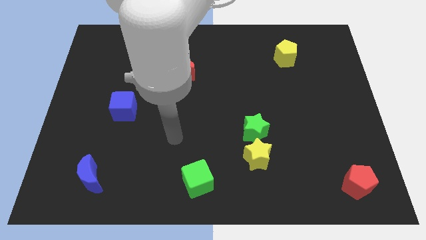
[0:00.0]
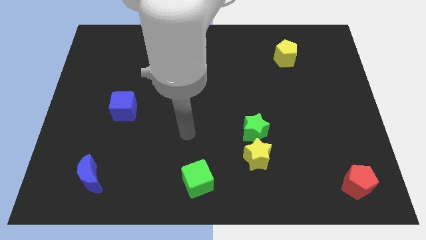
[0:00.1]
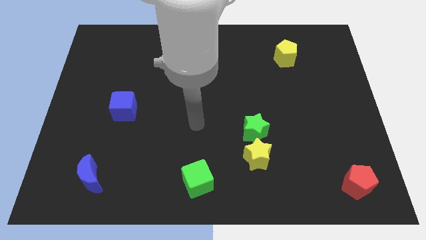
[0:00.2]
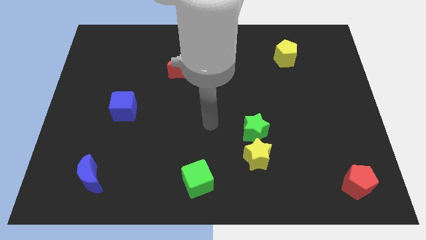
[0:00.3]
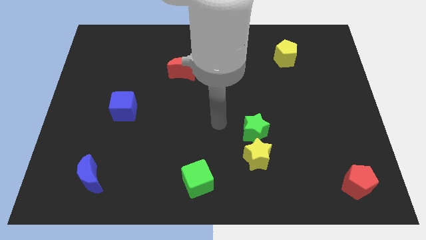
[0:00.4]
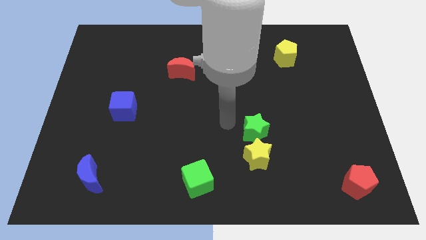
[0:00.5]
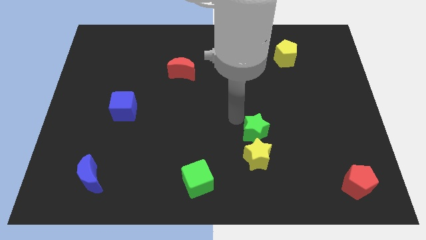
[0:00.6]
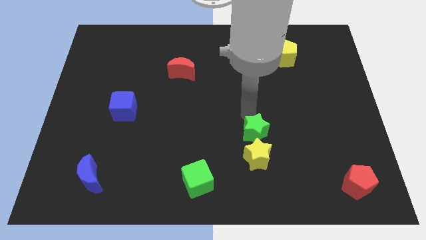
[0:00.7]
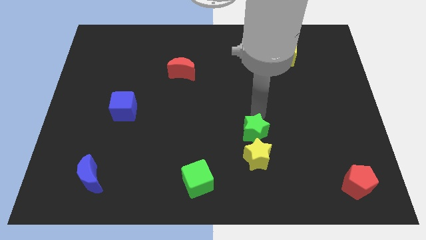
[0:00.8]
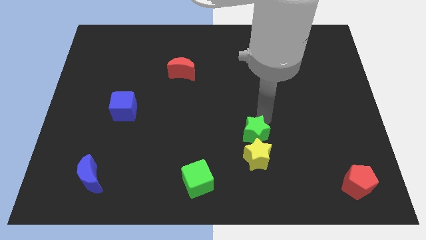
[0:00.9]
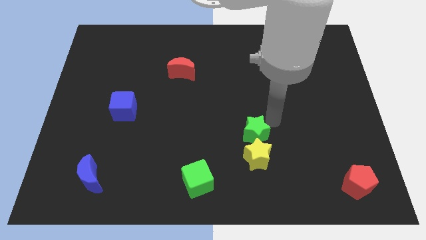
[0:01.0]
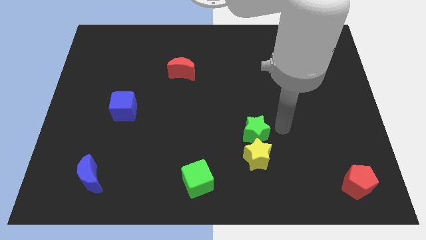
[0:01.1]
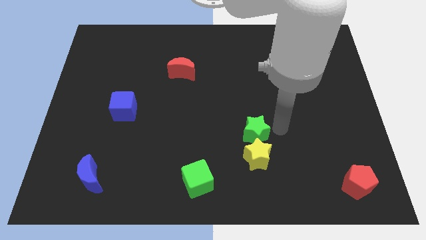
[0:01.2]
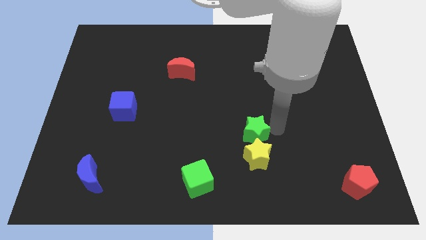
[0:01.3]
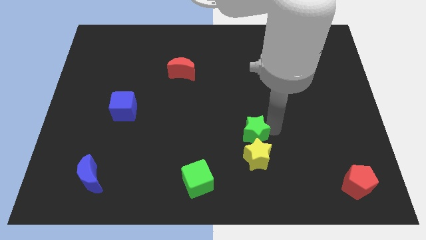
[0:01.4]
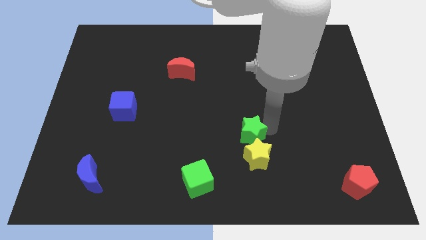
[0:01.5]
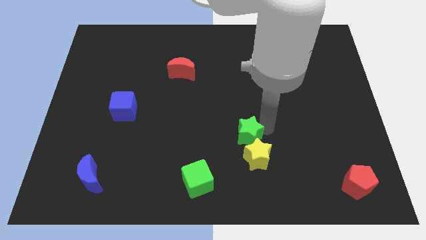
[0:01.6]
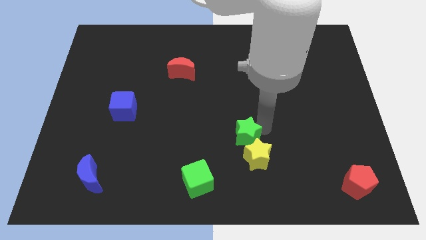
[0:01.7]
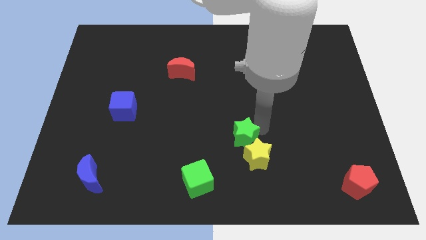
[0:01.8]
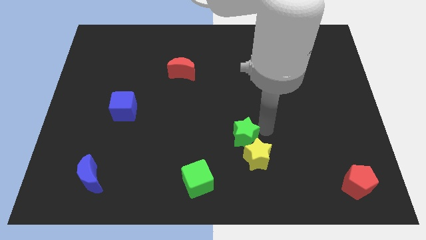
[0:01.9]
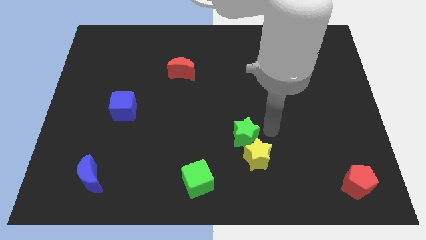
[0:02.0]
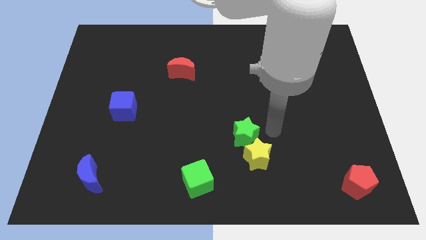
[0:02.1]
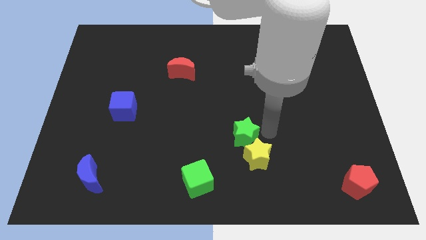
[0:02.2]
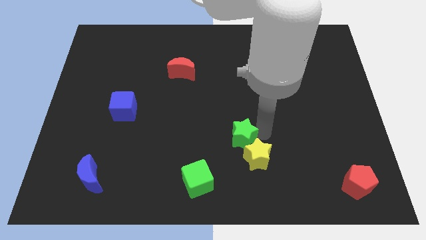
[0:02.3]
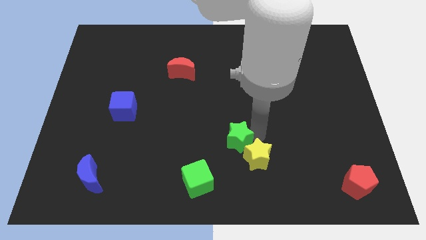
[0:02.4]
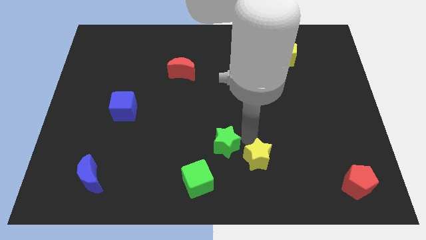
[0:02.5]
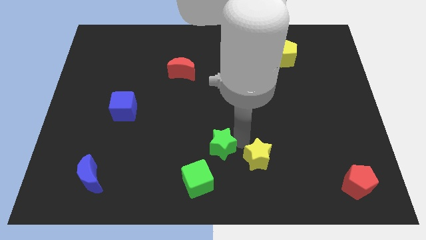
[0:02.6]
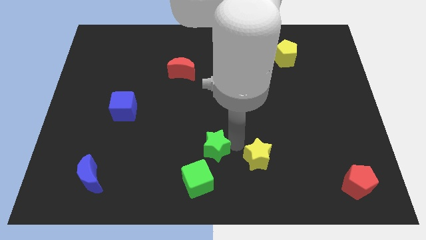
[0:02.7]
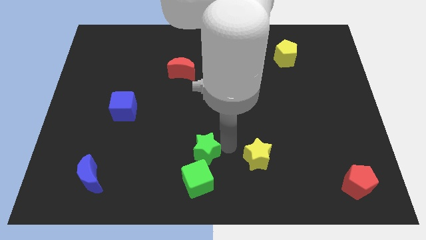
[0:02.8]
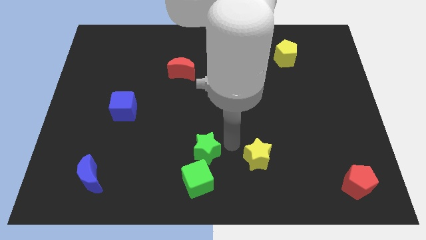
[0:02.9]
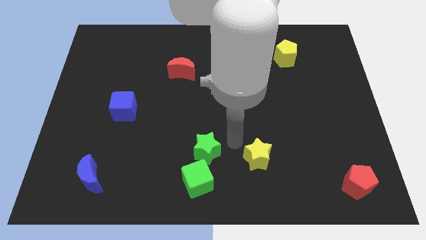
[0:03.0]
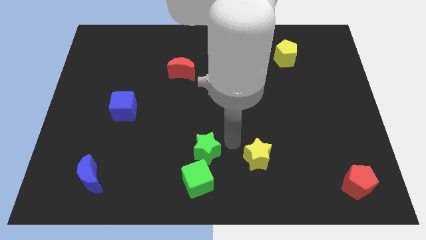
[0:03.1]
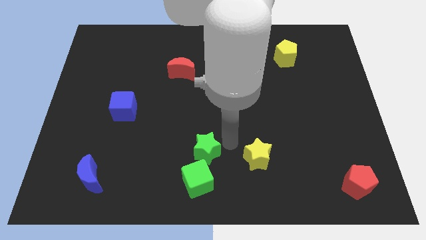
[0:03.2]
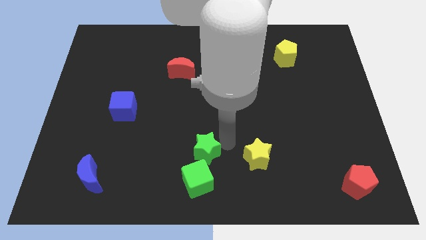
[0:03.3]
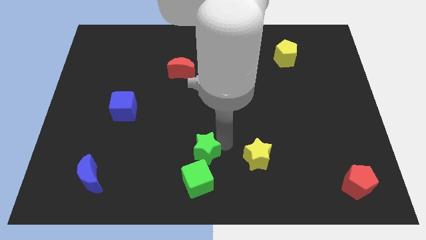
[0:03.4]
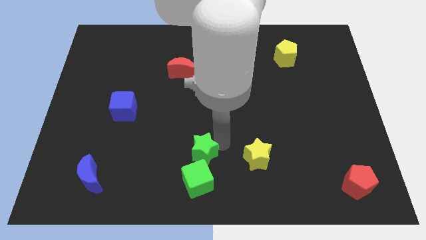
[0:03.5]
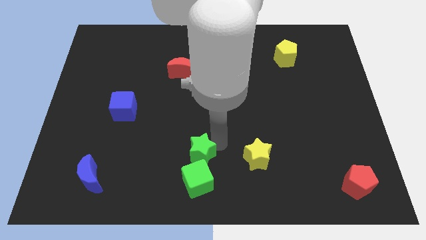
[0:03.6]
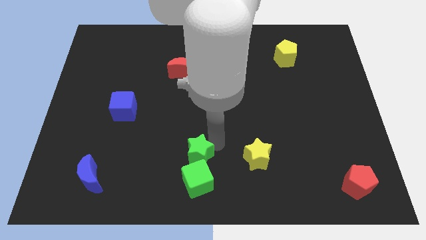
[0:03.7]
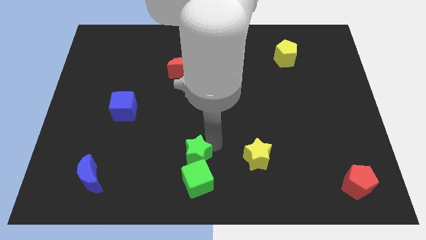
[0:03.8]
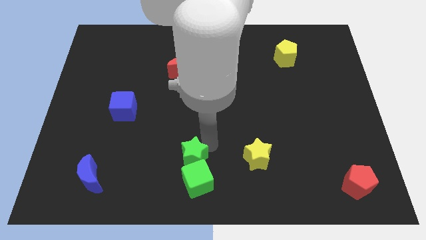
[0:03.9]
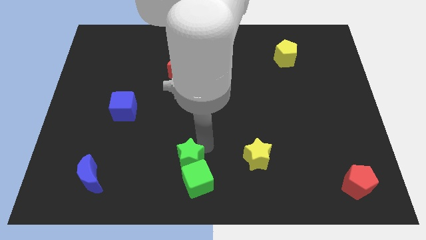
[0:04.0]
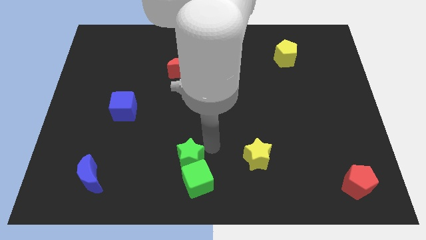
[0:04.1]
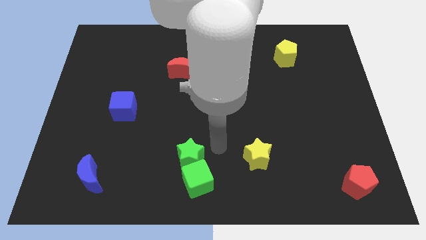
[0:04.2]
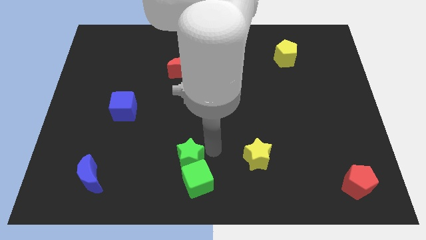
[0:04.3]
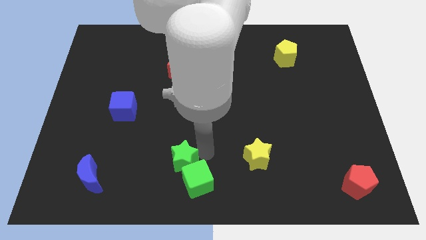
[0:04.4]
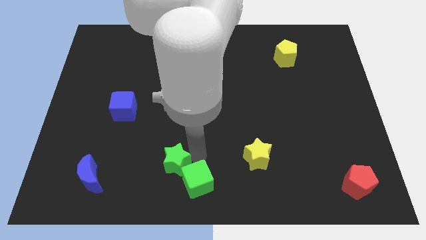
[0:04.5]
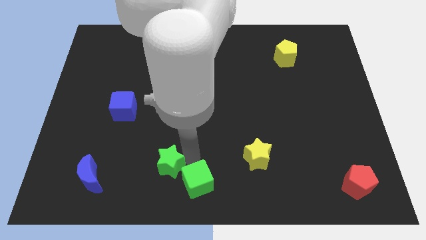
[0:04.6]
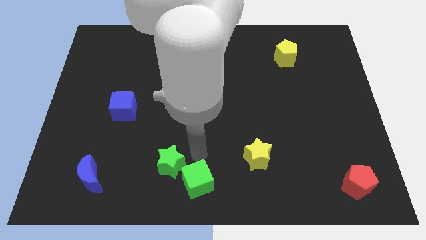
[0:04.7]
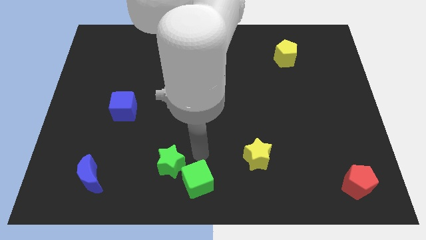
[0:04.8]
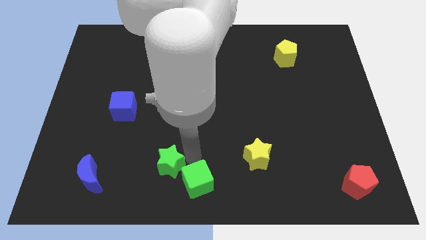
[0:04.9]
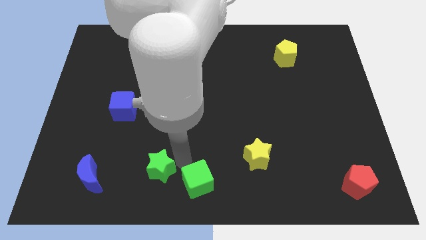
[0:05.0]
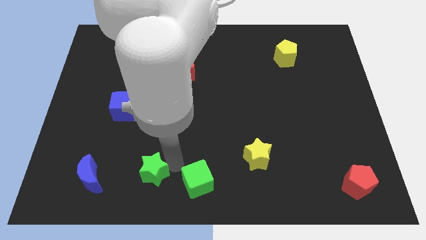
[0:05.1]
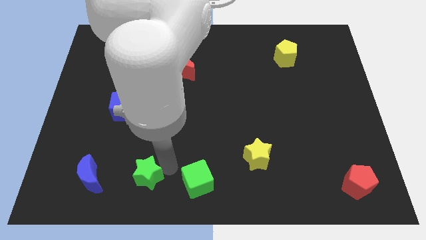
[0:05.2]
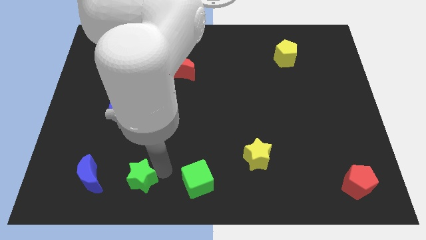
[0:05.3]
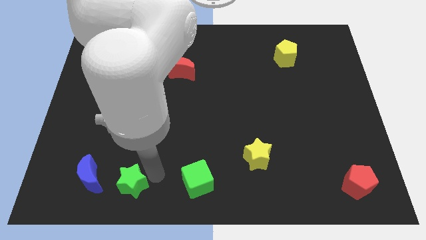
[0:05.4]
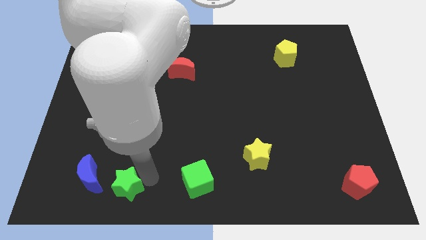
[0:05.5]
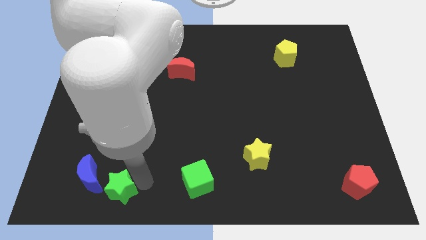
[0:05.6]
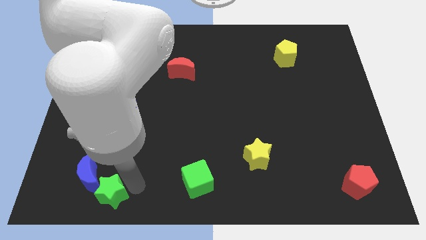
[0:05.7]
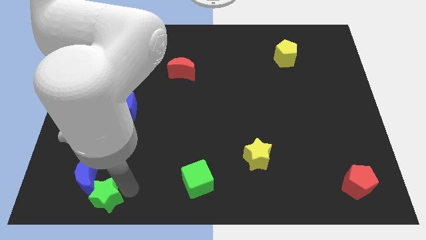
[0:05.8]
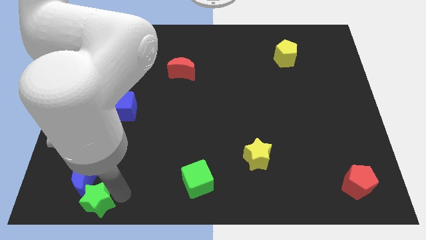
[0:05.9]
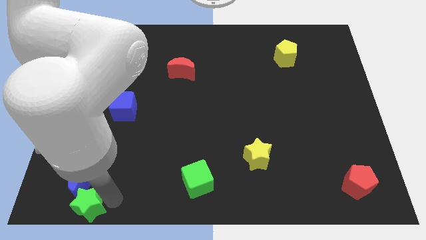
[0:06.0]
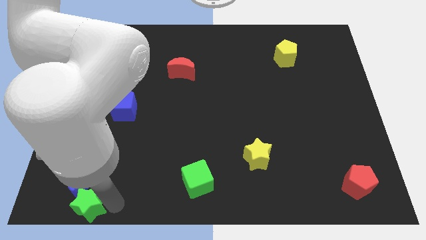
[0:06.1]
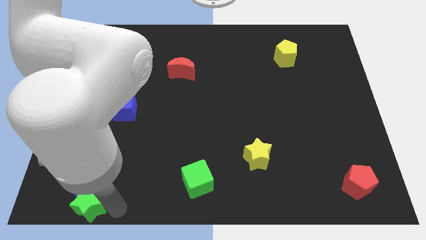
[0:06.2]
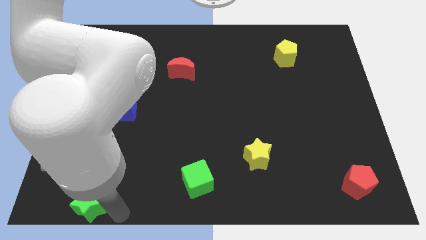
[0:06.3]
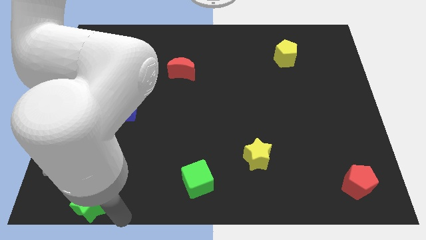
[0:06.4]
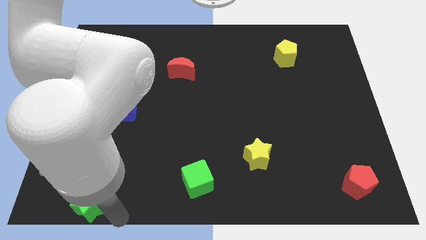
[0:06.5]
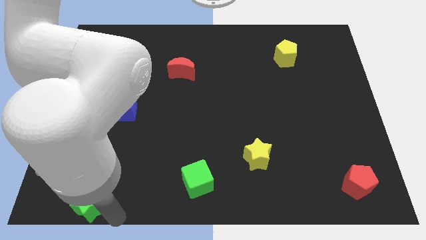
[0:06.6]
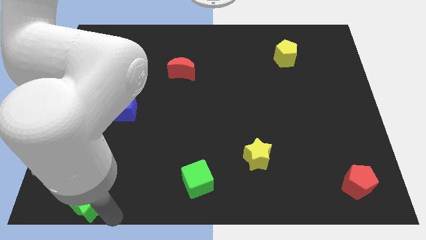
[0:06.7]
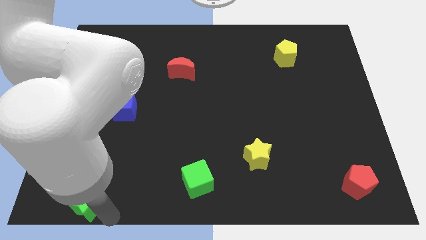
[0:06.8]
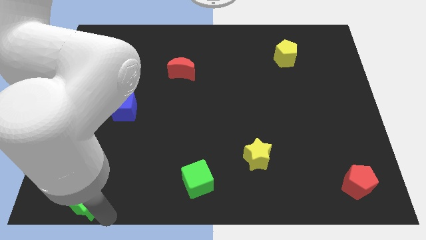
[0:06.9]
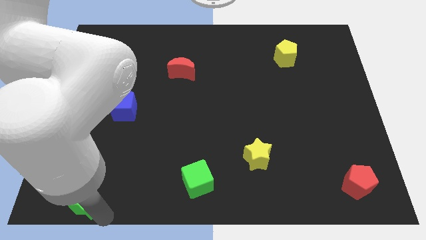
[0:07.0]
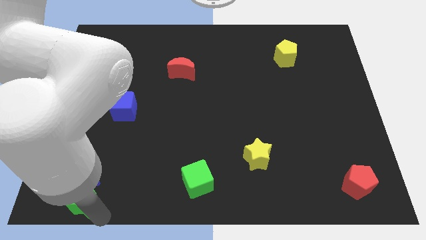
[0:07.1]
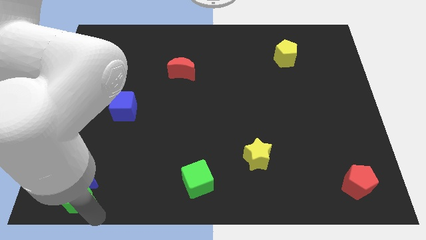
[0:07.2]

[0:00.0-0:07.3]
push the green star to the bottom left corner

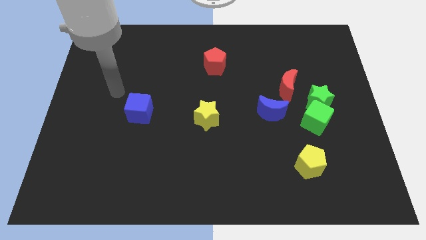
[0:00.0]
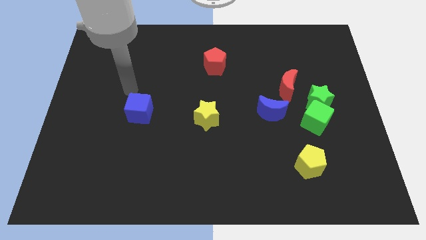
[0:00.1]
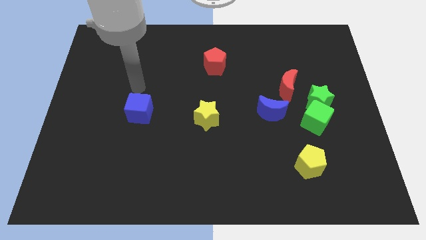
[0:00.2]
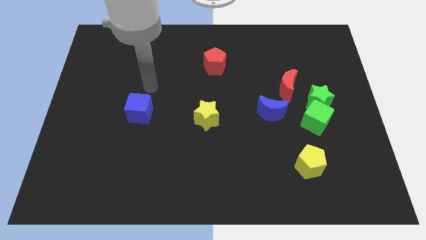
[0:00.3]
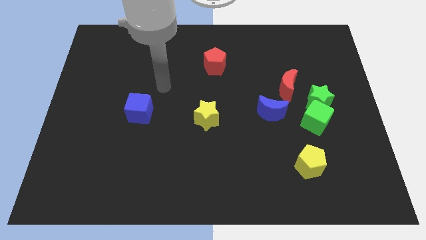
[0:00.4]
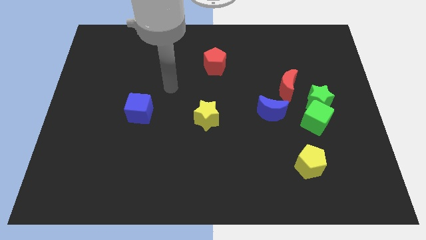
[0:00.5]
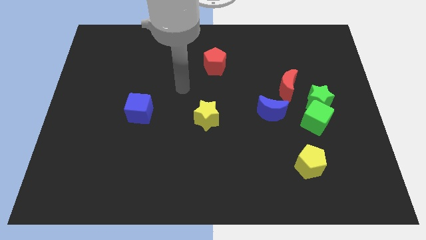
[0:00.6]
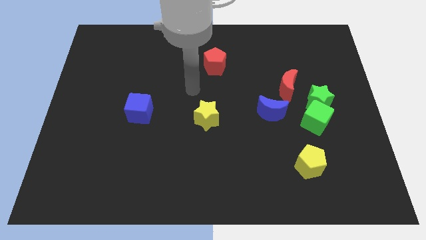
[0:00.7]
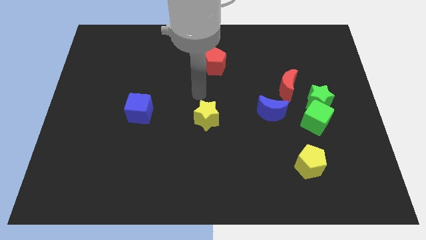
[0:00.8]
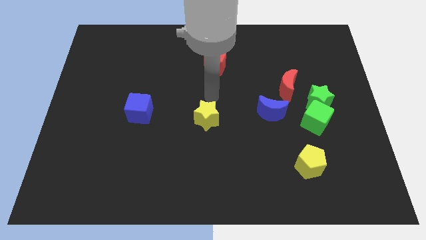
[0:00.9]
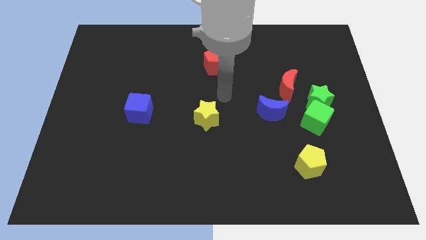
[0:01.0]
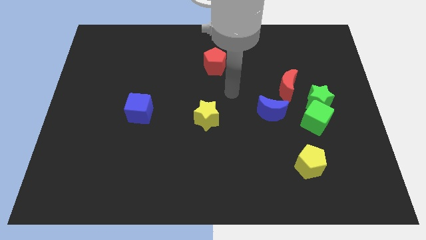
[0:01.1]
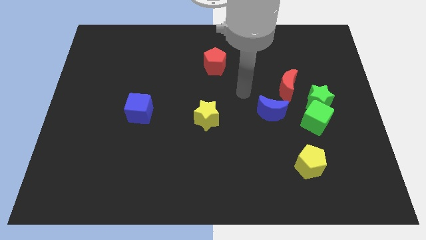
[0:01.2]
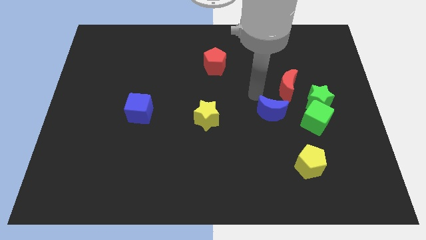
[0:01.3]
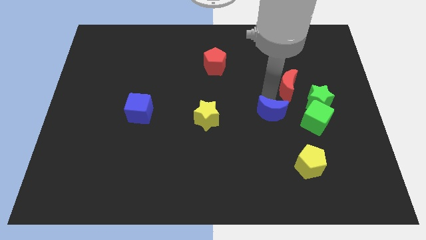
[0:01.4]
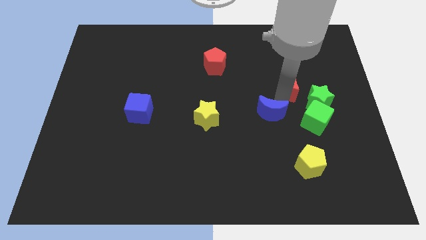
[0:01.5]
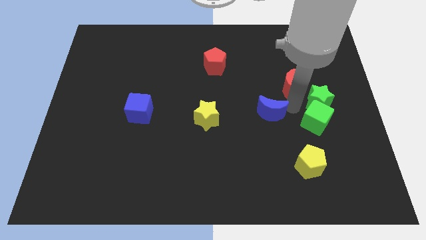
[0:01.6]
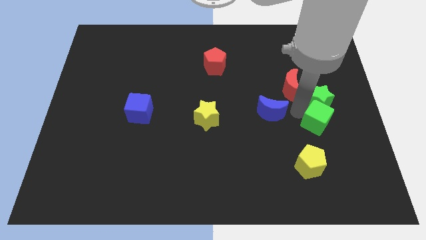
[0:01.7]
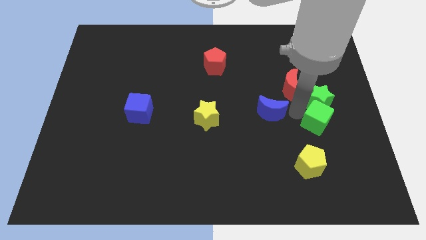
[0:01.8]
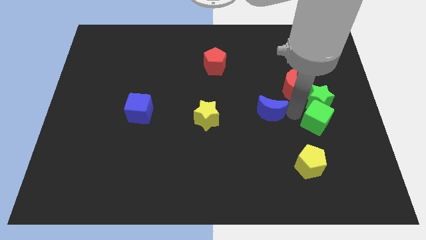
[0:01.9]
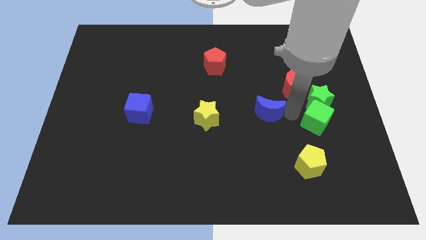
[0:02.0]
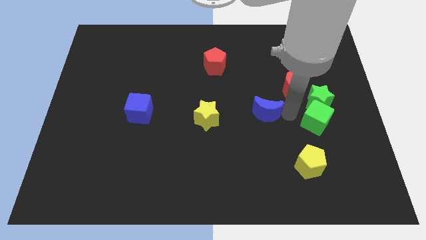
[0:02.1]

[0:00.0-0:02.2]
slide the blue moon to the center
